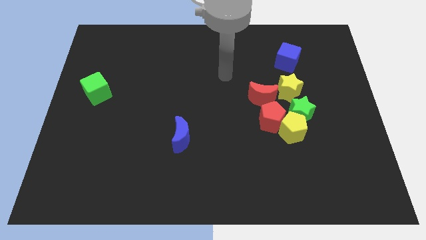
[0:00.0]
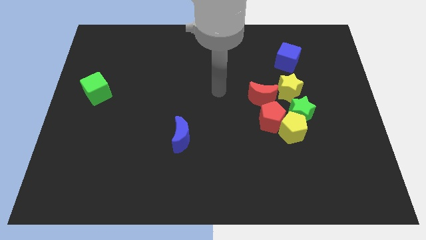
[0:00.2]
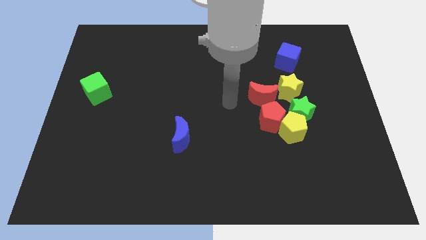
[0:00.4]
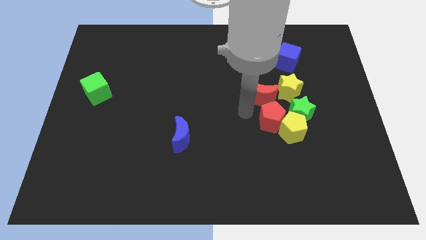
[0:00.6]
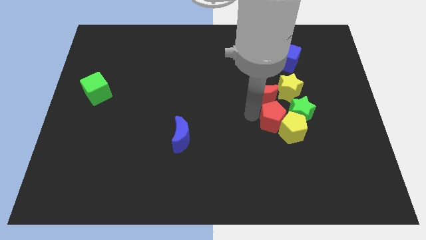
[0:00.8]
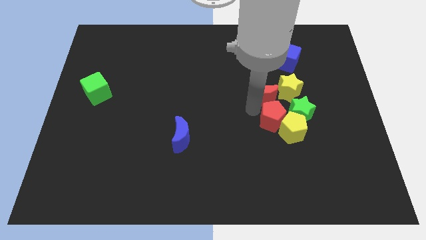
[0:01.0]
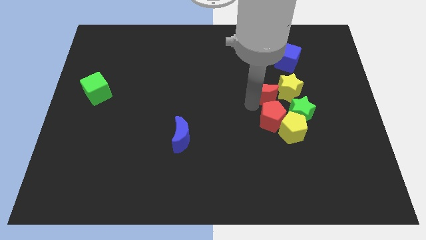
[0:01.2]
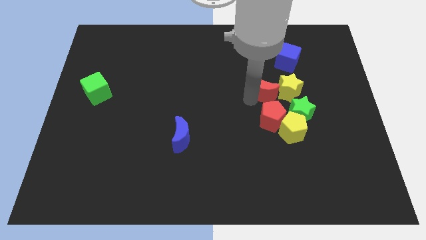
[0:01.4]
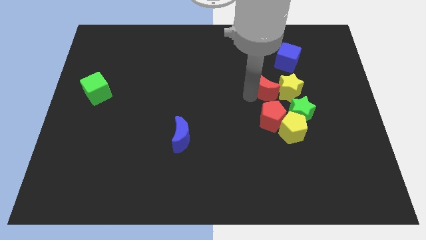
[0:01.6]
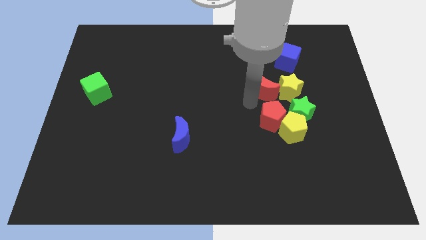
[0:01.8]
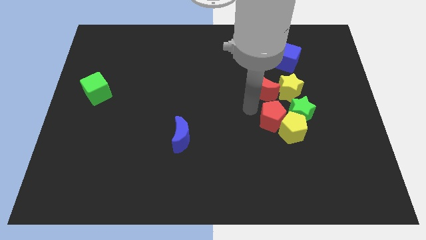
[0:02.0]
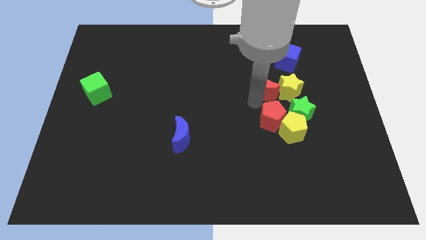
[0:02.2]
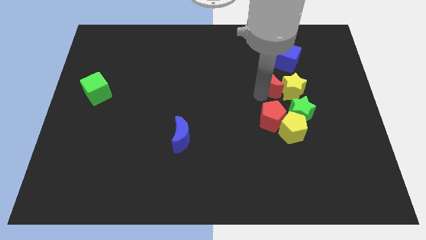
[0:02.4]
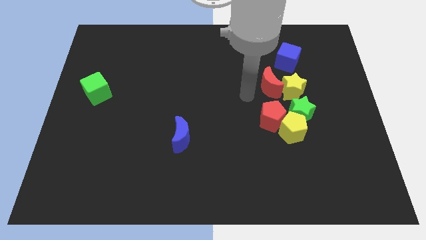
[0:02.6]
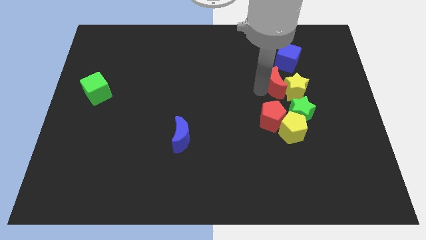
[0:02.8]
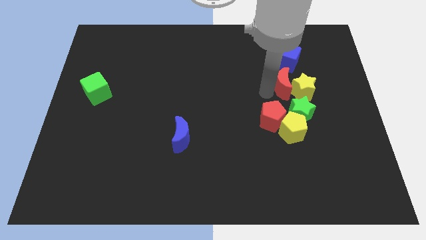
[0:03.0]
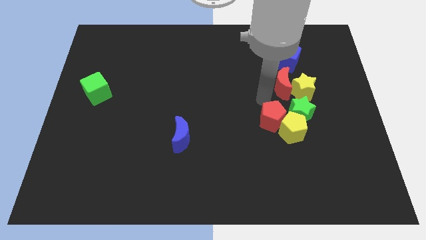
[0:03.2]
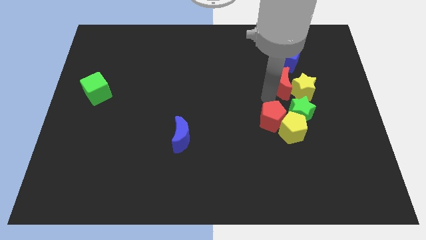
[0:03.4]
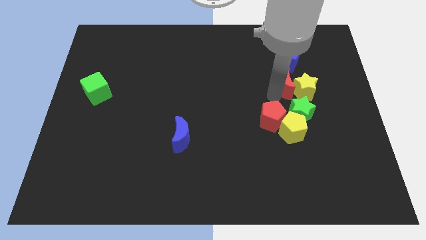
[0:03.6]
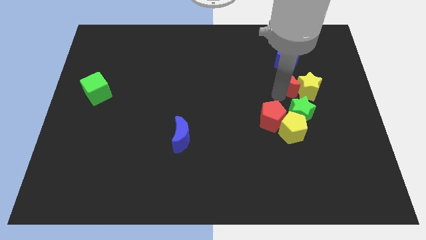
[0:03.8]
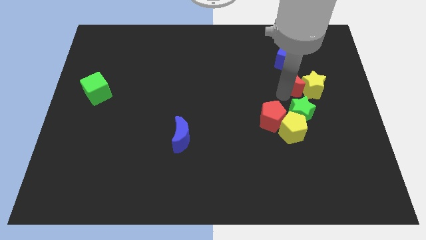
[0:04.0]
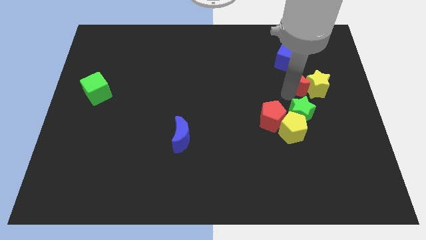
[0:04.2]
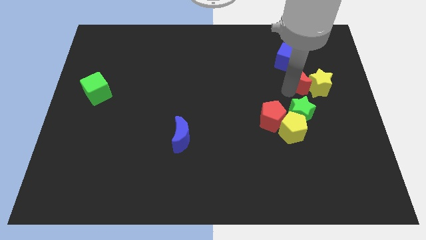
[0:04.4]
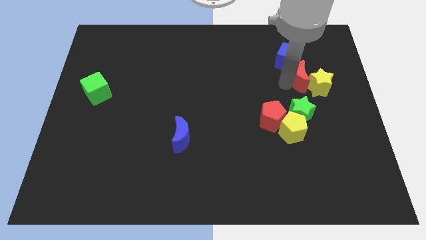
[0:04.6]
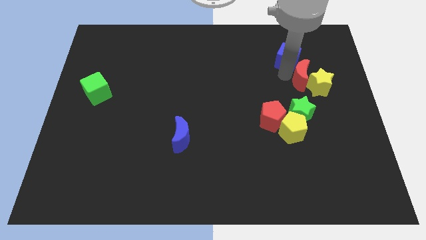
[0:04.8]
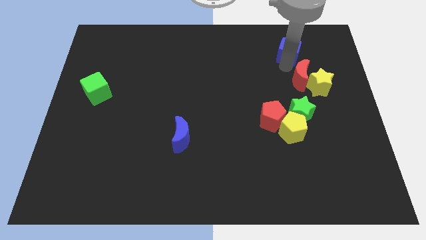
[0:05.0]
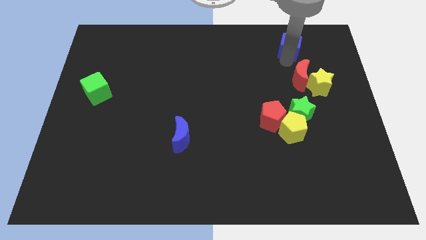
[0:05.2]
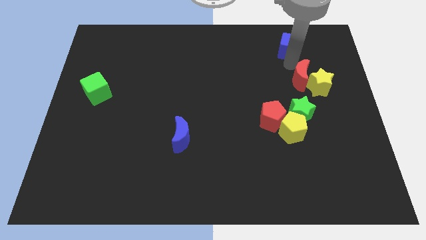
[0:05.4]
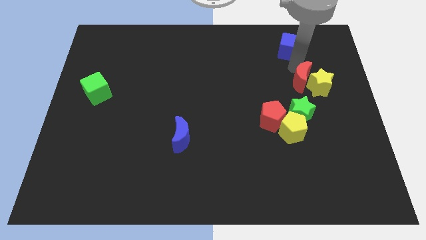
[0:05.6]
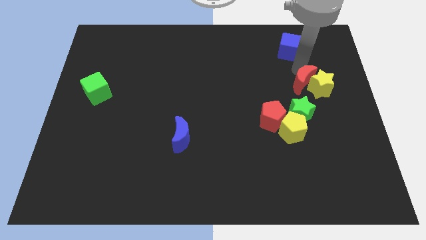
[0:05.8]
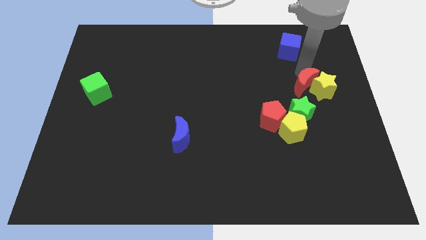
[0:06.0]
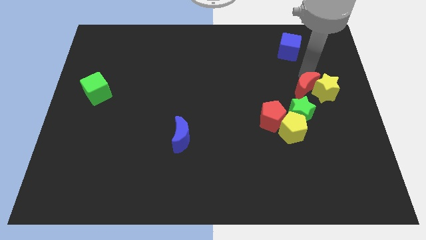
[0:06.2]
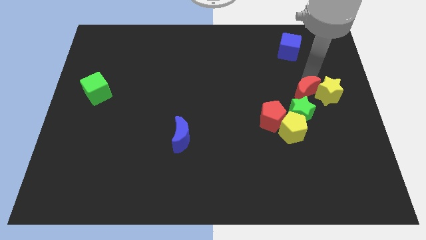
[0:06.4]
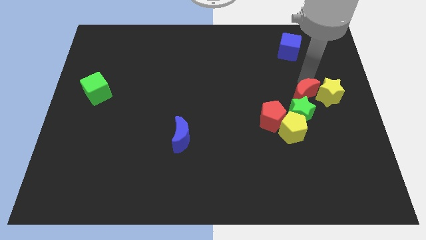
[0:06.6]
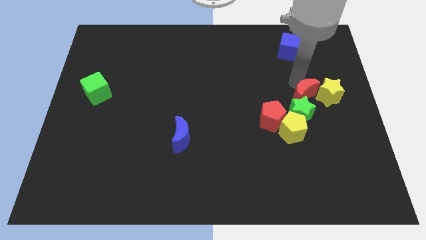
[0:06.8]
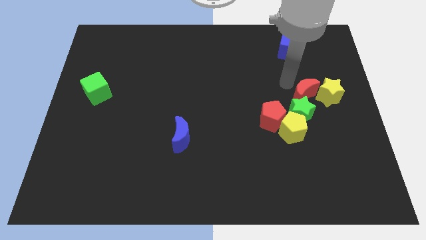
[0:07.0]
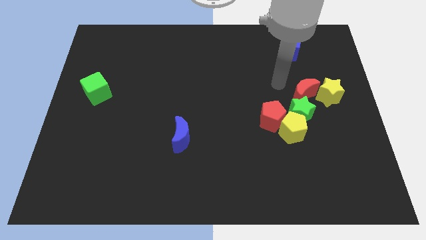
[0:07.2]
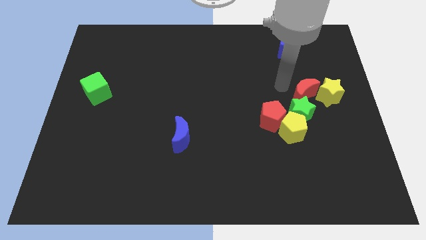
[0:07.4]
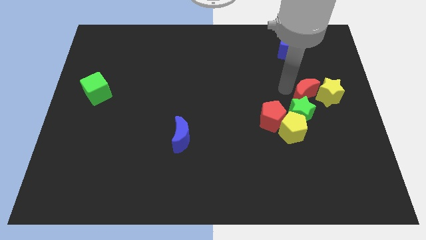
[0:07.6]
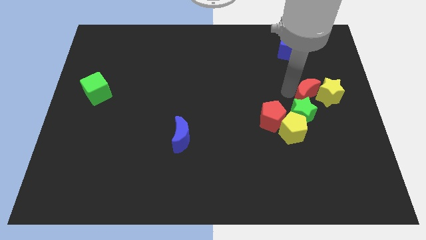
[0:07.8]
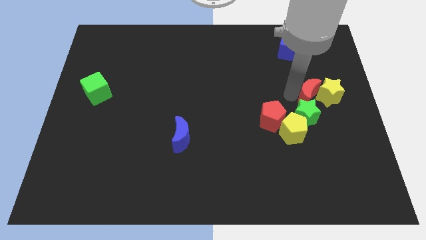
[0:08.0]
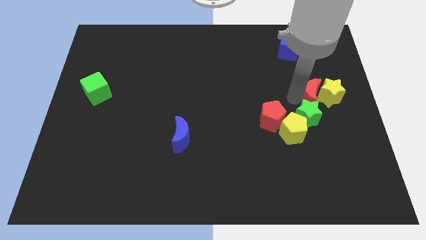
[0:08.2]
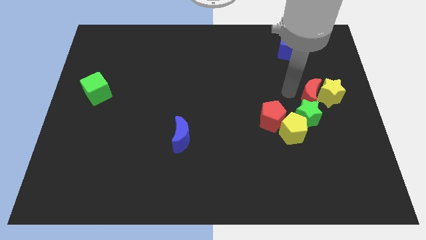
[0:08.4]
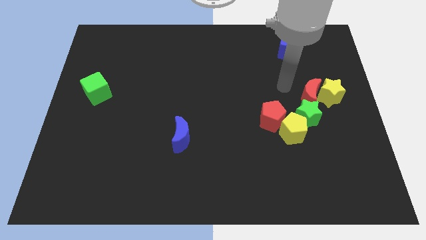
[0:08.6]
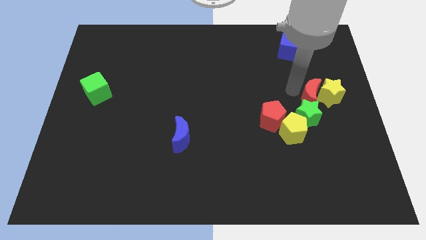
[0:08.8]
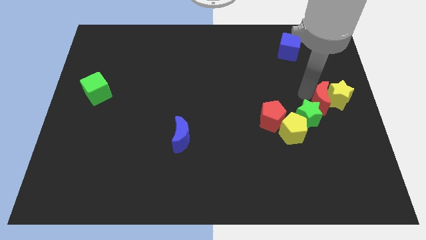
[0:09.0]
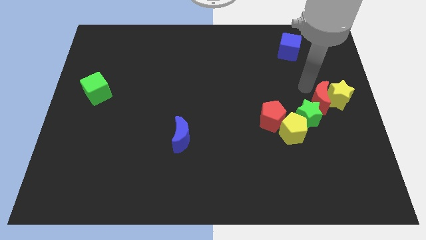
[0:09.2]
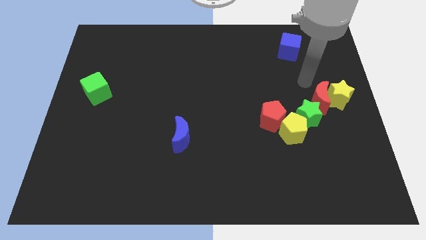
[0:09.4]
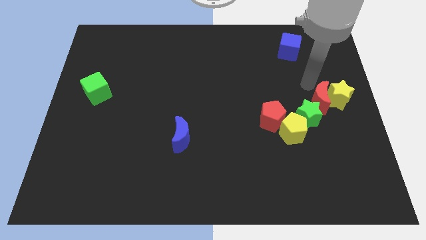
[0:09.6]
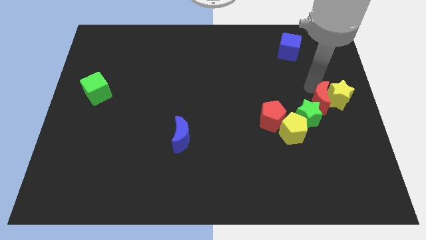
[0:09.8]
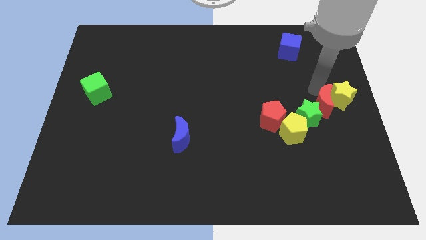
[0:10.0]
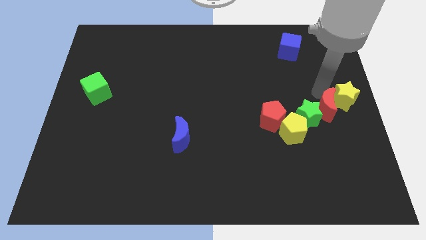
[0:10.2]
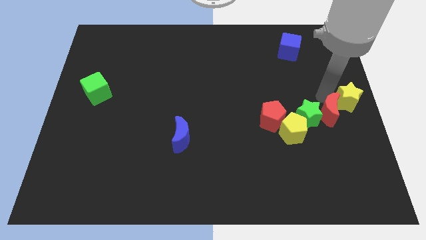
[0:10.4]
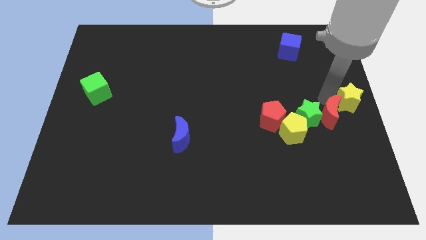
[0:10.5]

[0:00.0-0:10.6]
put the red moon to the right of the yellow pentagon

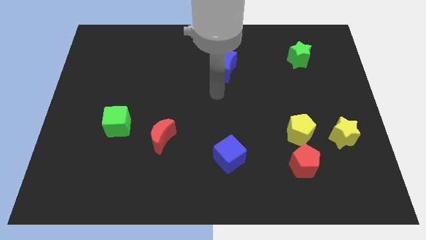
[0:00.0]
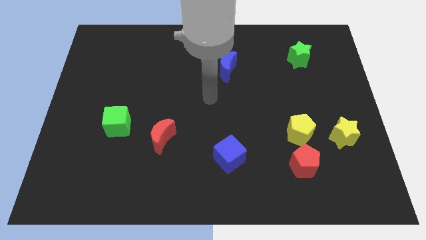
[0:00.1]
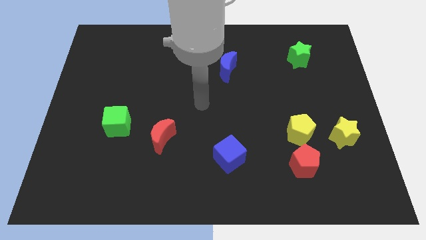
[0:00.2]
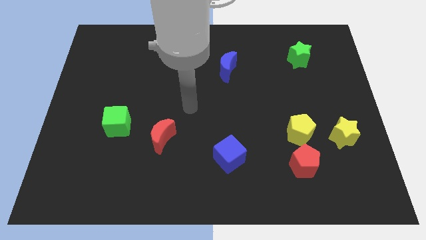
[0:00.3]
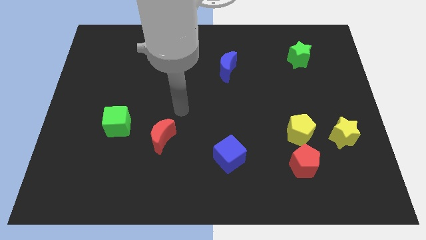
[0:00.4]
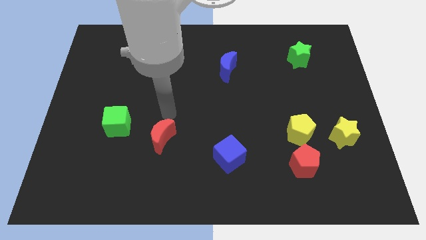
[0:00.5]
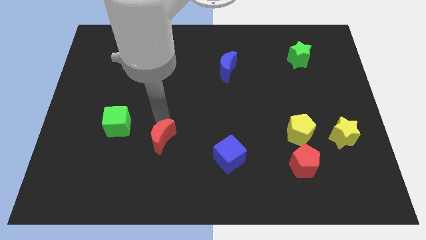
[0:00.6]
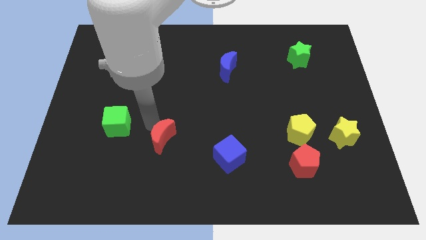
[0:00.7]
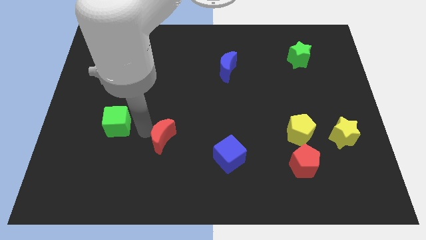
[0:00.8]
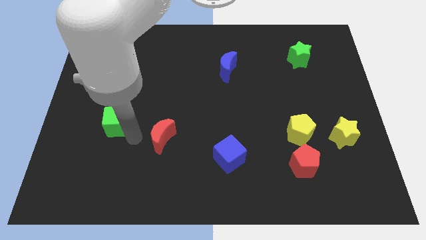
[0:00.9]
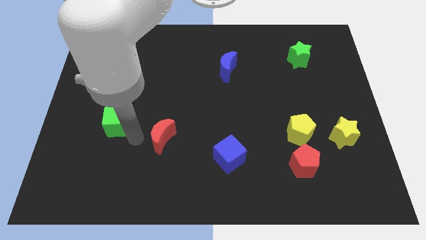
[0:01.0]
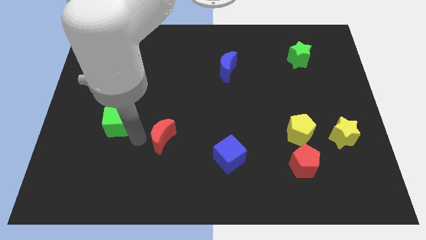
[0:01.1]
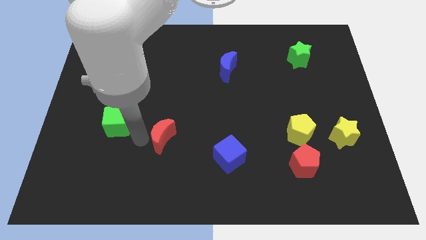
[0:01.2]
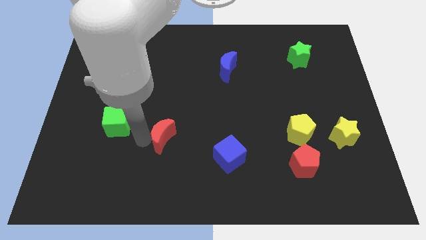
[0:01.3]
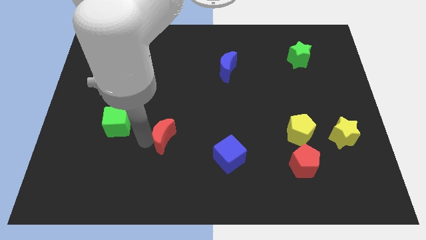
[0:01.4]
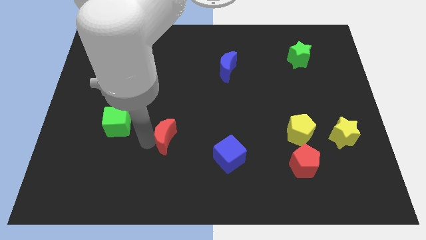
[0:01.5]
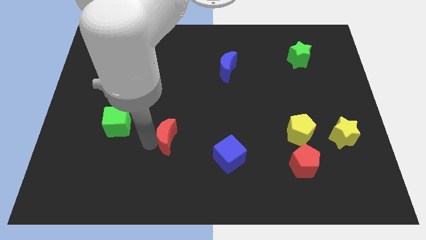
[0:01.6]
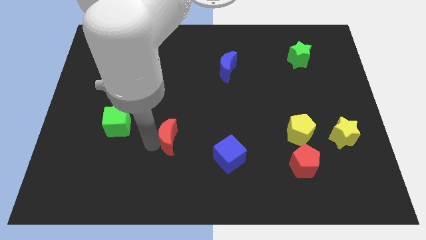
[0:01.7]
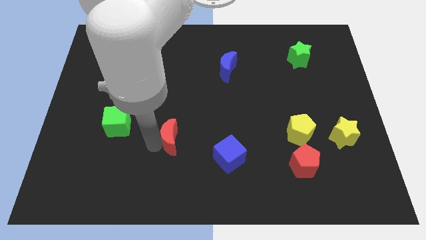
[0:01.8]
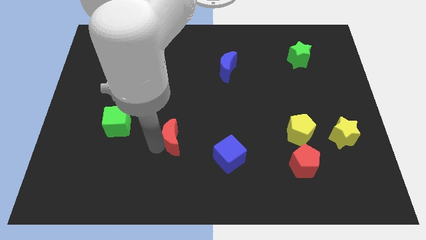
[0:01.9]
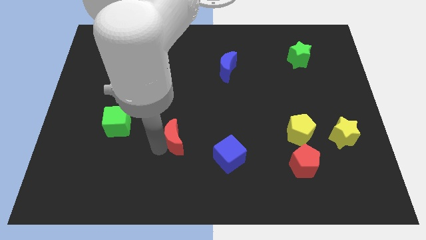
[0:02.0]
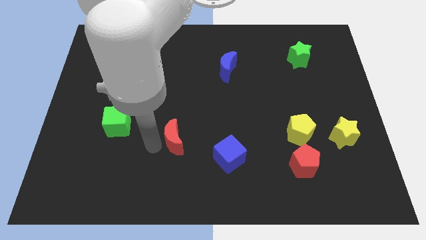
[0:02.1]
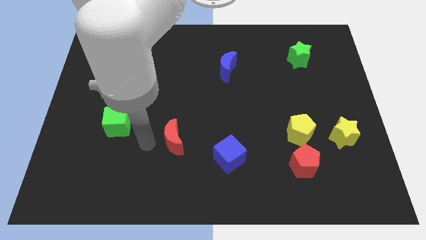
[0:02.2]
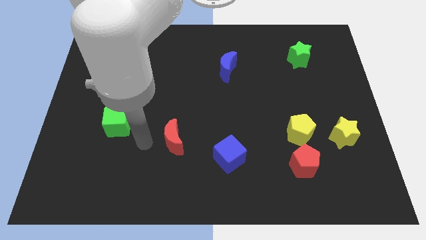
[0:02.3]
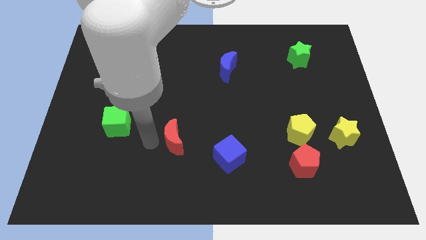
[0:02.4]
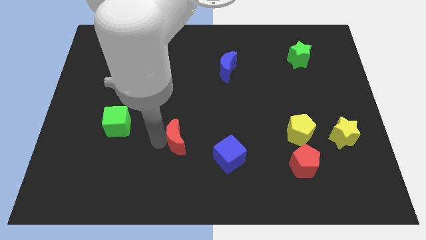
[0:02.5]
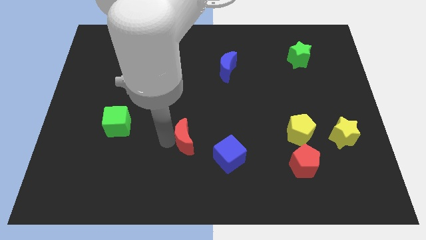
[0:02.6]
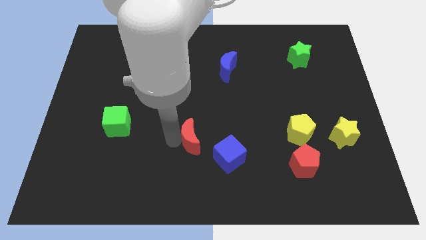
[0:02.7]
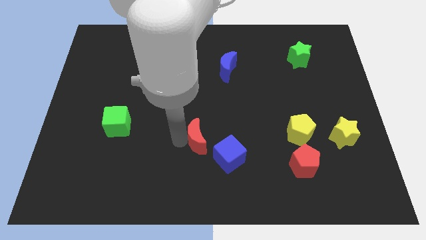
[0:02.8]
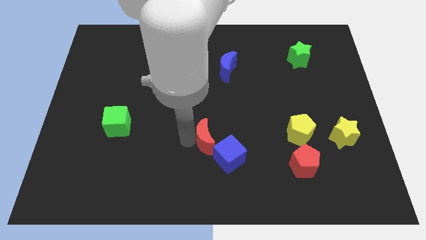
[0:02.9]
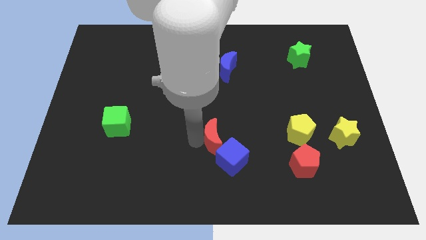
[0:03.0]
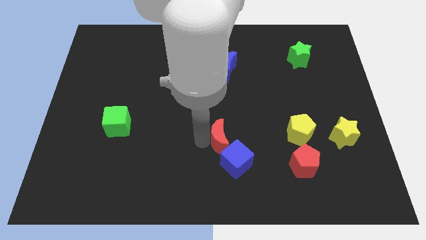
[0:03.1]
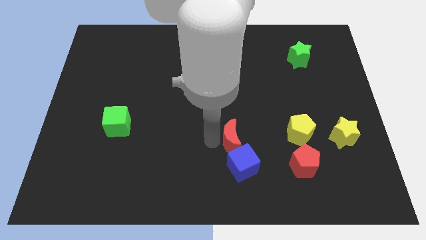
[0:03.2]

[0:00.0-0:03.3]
put the red moon to the left side of the yellow pentagon
